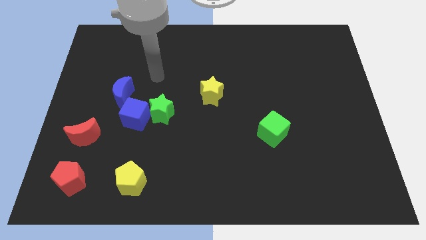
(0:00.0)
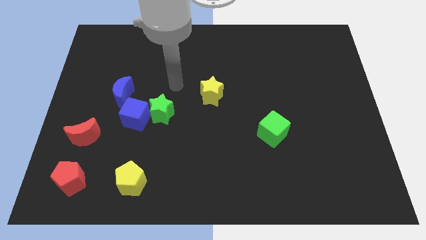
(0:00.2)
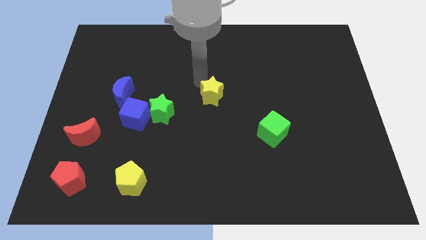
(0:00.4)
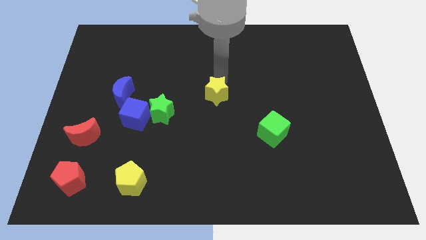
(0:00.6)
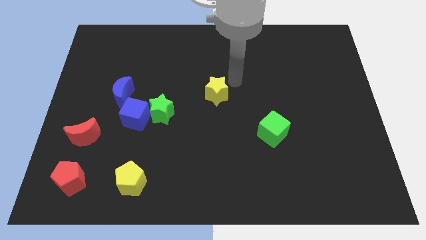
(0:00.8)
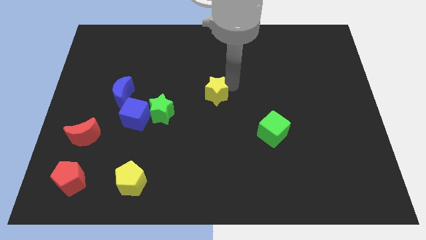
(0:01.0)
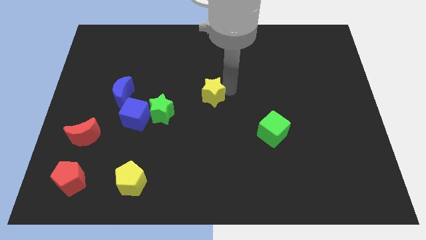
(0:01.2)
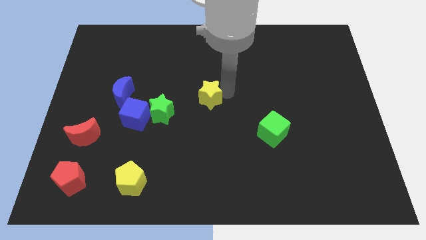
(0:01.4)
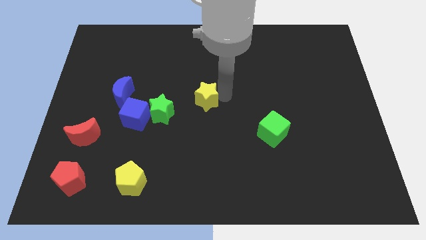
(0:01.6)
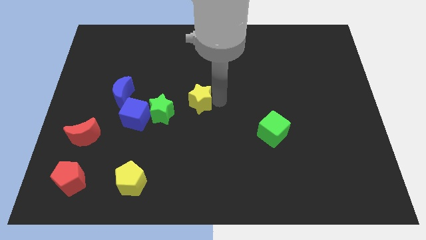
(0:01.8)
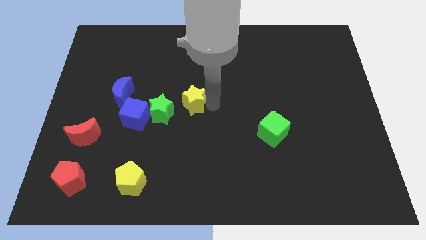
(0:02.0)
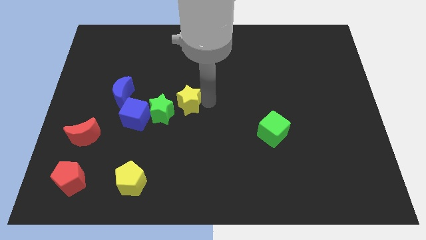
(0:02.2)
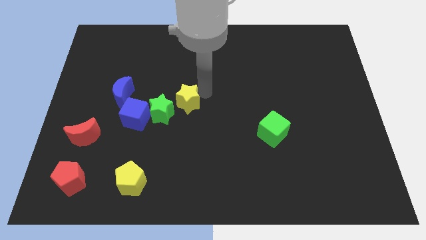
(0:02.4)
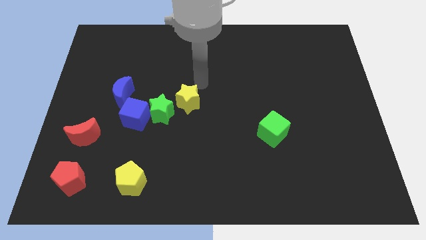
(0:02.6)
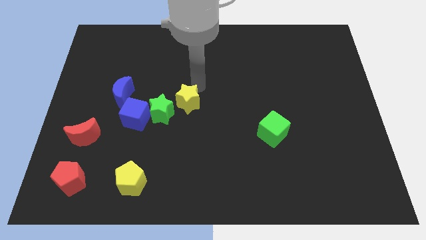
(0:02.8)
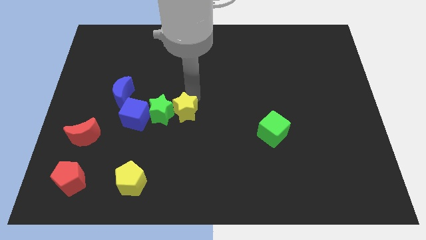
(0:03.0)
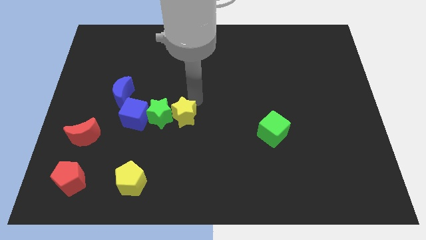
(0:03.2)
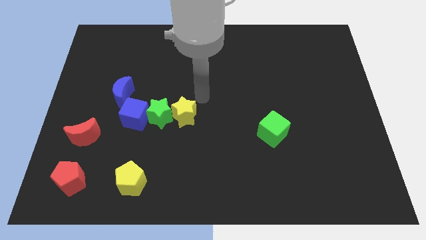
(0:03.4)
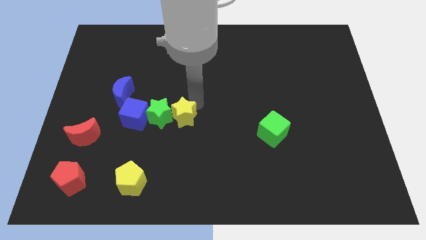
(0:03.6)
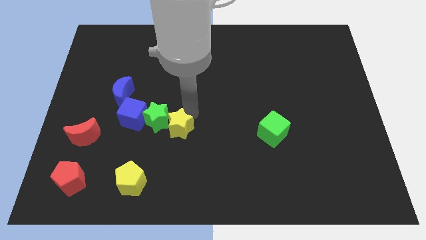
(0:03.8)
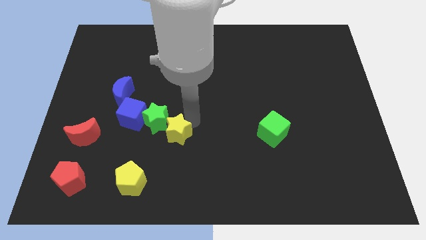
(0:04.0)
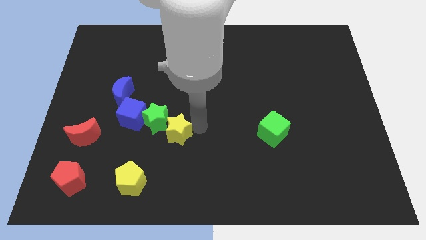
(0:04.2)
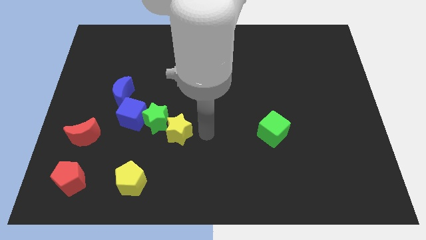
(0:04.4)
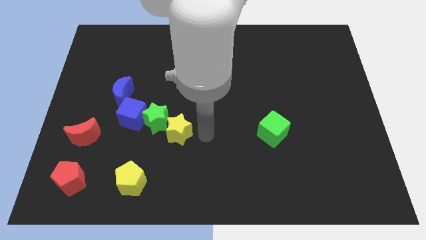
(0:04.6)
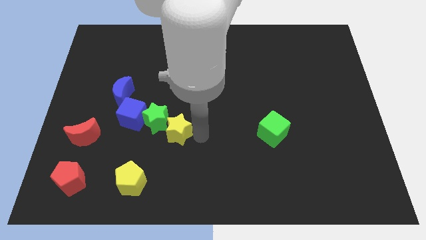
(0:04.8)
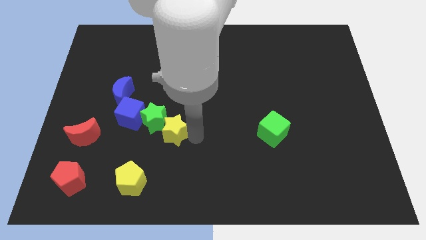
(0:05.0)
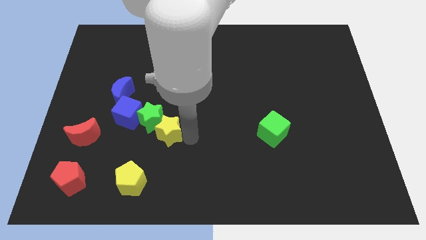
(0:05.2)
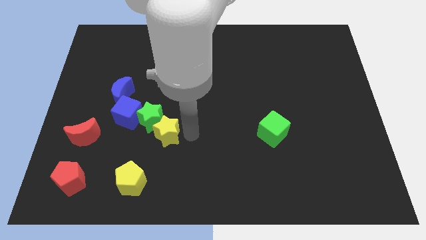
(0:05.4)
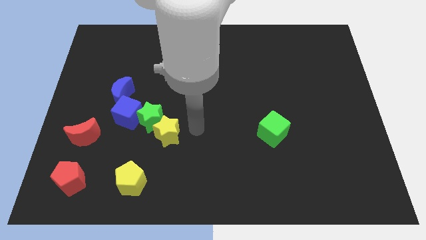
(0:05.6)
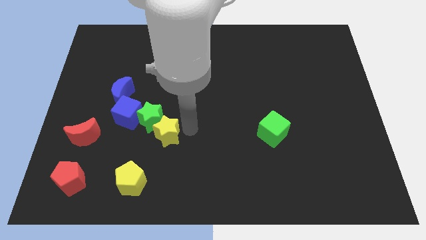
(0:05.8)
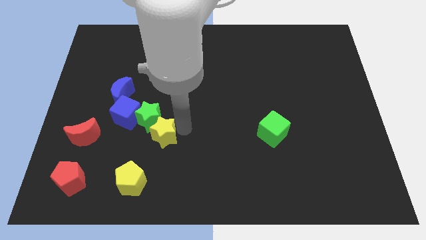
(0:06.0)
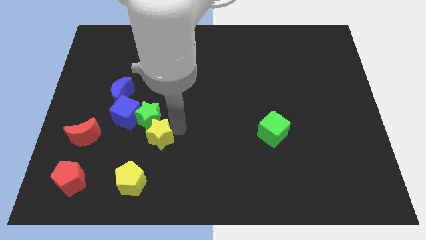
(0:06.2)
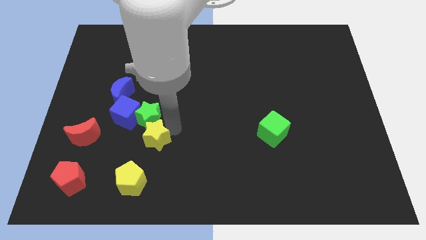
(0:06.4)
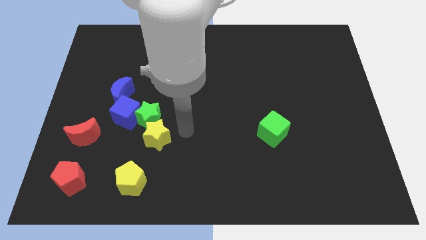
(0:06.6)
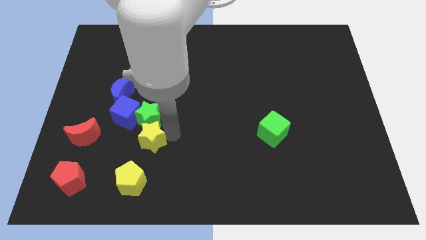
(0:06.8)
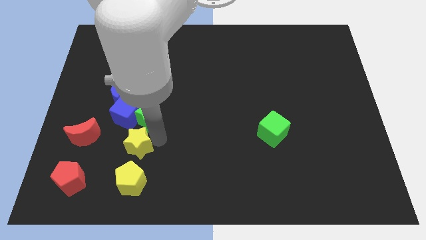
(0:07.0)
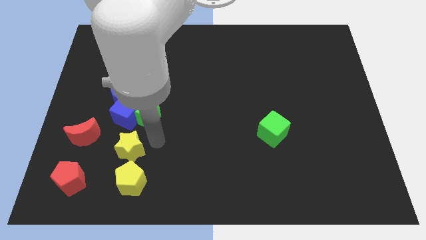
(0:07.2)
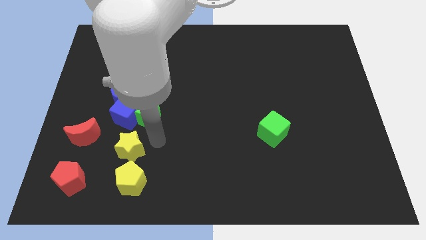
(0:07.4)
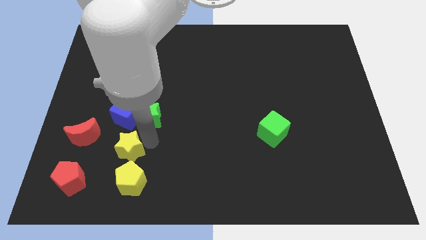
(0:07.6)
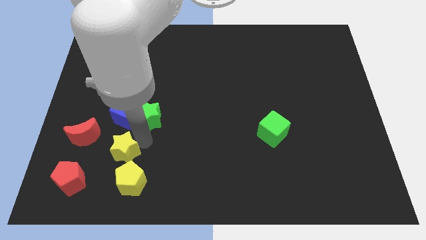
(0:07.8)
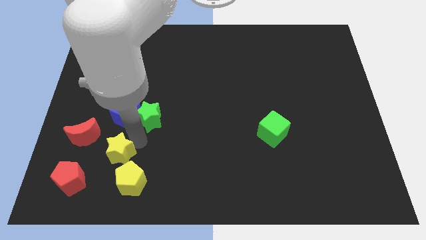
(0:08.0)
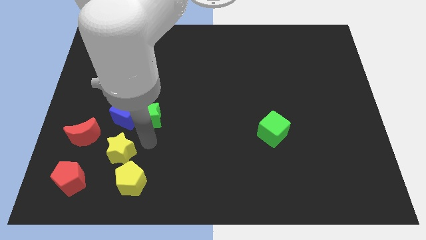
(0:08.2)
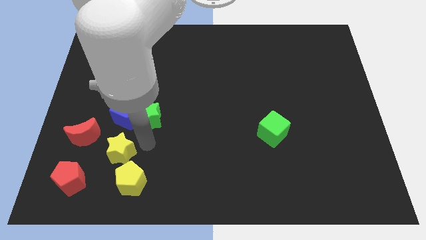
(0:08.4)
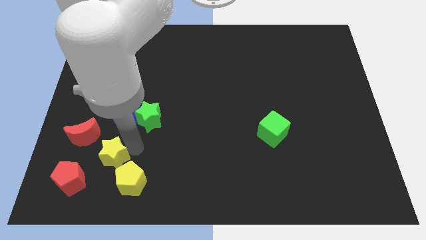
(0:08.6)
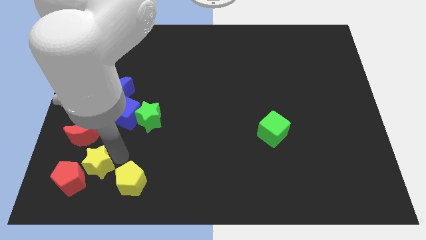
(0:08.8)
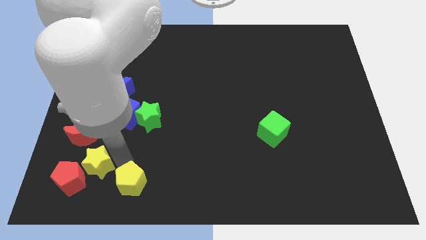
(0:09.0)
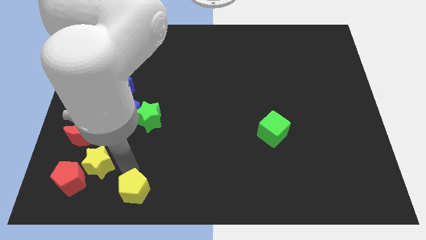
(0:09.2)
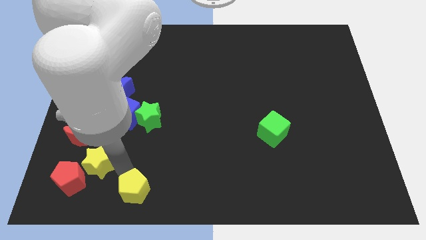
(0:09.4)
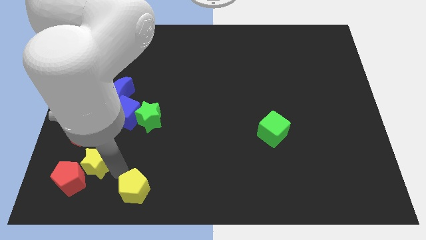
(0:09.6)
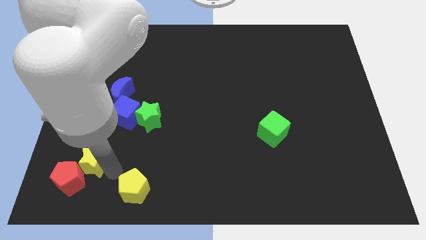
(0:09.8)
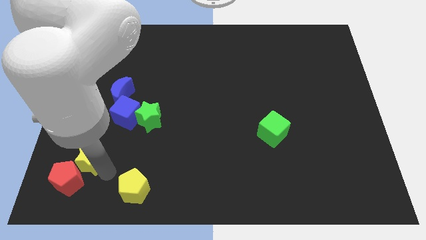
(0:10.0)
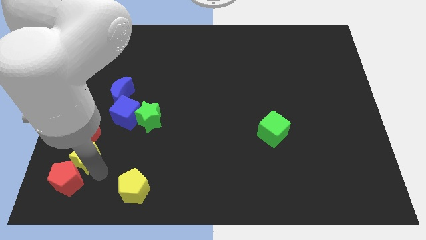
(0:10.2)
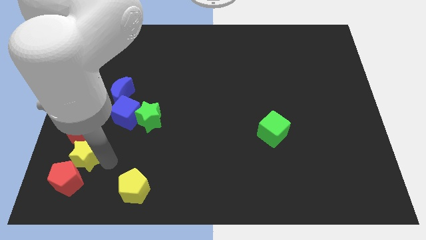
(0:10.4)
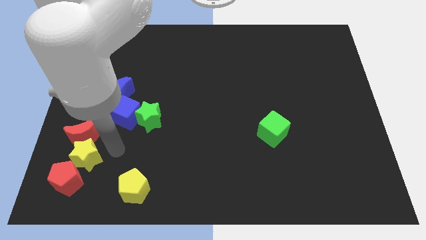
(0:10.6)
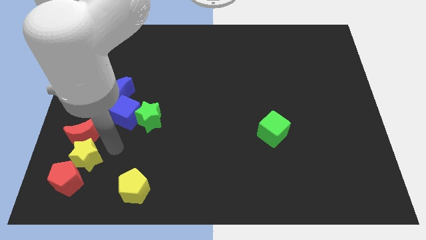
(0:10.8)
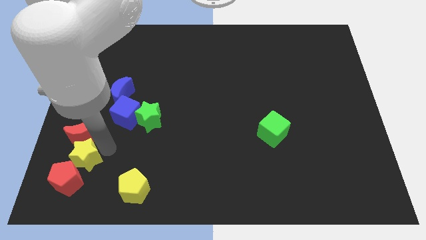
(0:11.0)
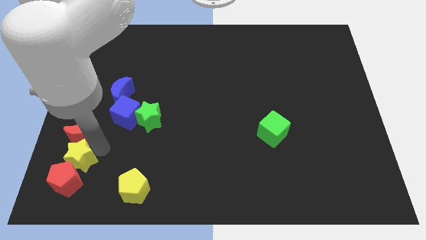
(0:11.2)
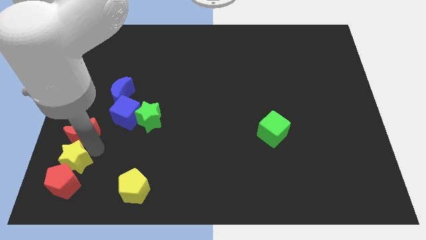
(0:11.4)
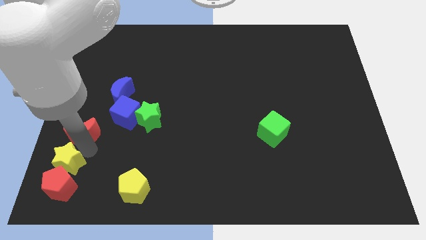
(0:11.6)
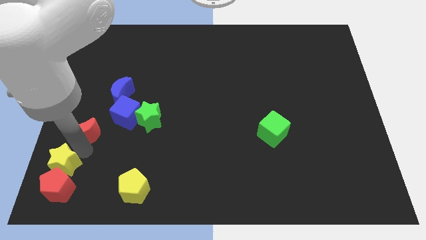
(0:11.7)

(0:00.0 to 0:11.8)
push the yellow star to the bottom left

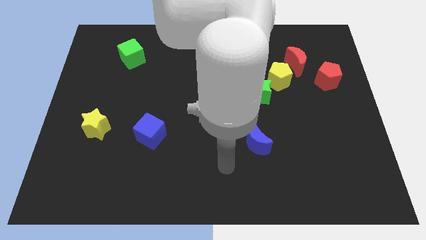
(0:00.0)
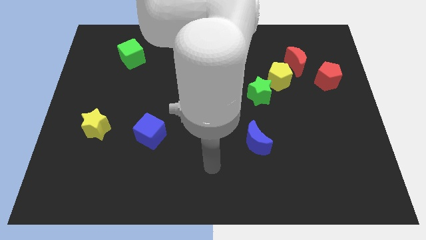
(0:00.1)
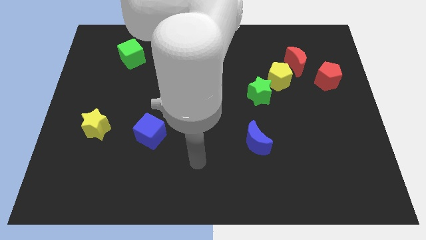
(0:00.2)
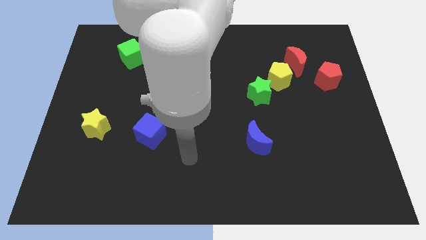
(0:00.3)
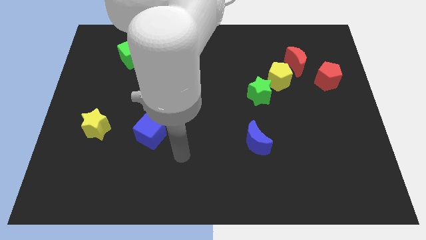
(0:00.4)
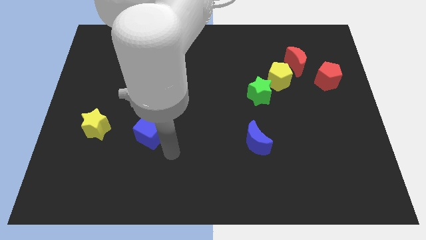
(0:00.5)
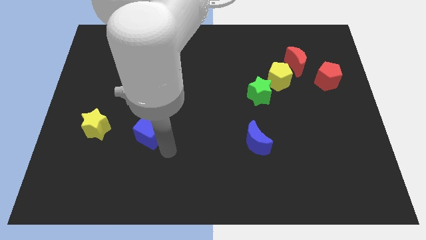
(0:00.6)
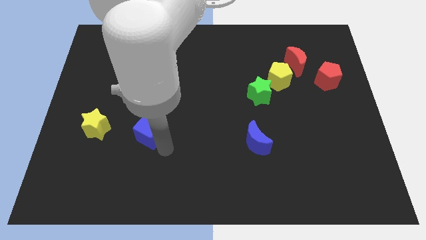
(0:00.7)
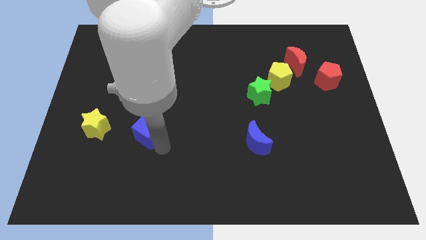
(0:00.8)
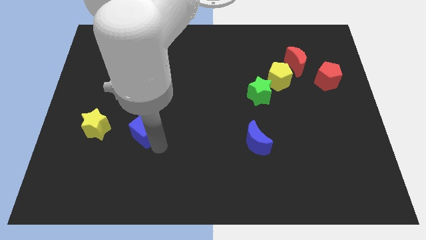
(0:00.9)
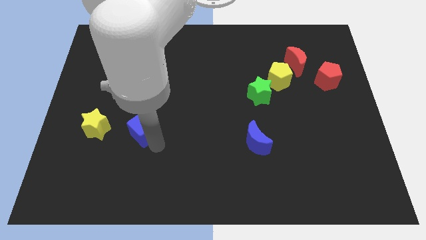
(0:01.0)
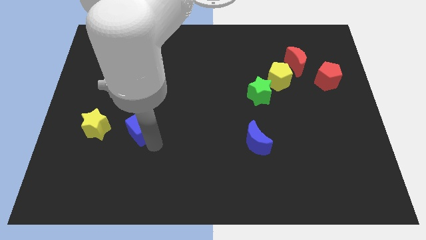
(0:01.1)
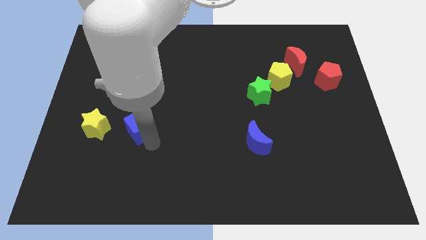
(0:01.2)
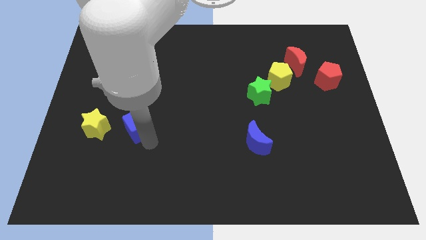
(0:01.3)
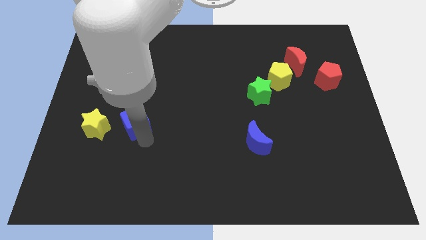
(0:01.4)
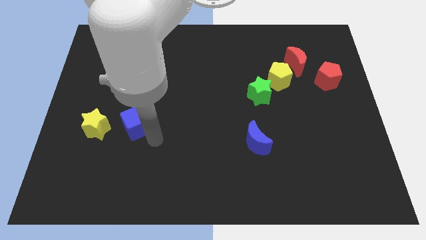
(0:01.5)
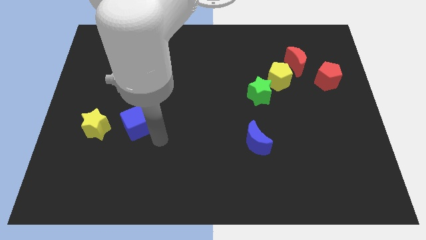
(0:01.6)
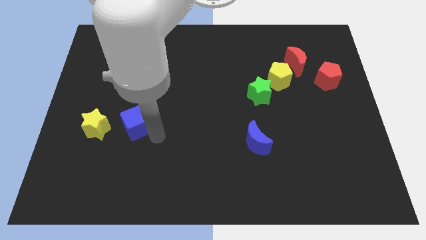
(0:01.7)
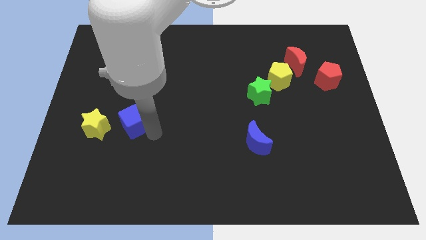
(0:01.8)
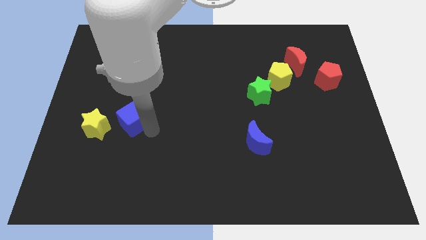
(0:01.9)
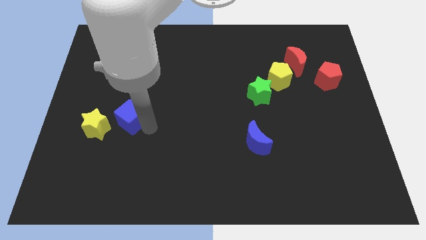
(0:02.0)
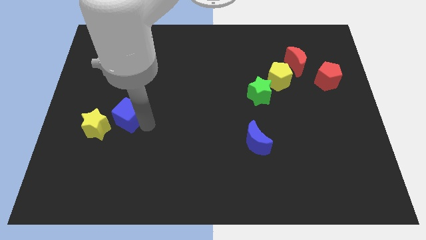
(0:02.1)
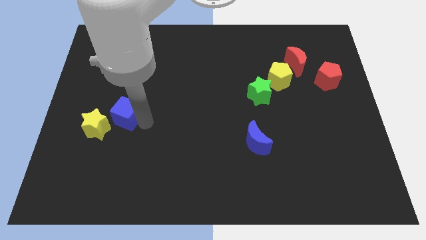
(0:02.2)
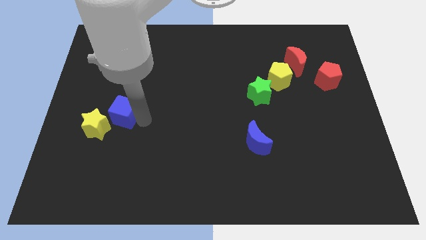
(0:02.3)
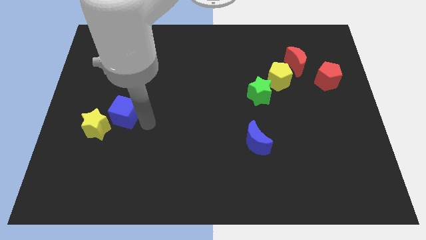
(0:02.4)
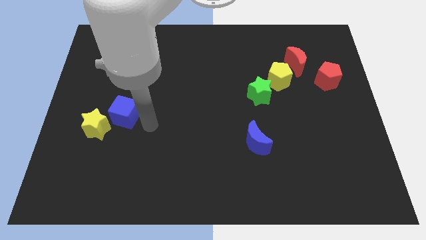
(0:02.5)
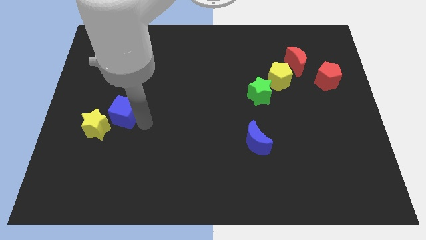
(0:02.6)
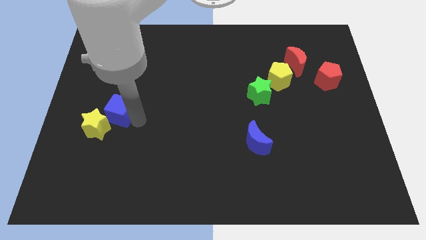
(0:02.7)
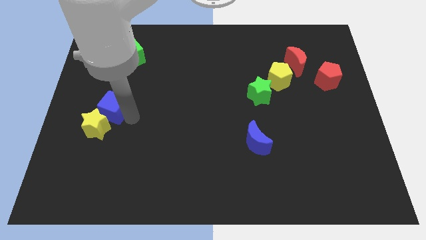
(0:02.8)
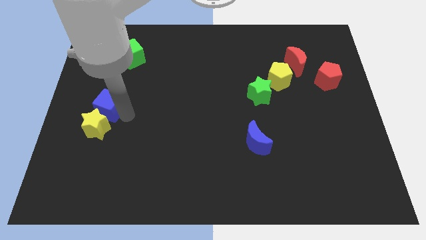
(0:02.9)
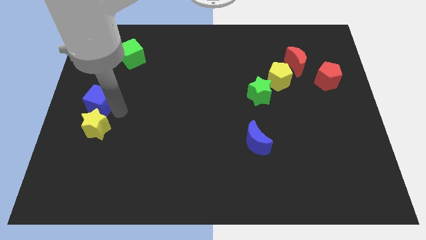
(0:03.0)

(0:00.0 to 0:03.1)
slide the blue cube to the center left
